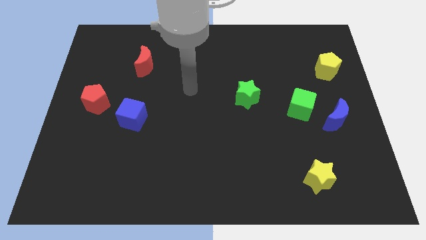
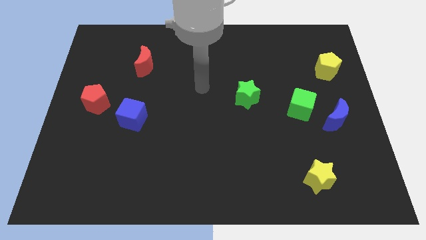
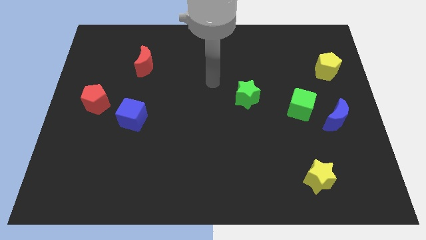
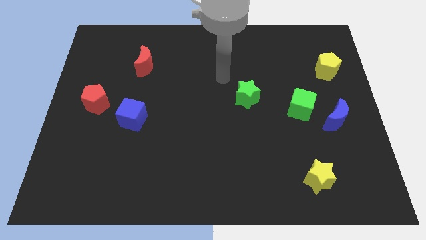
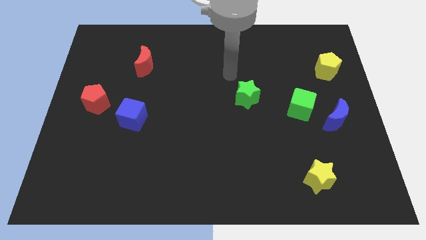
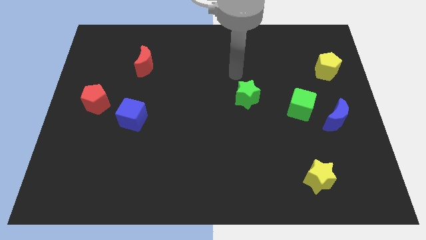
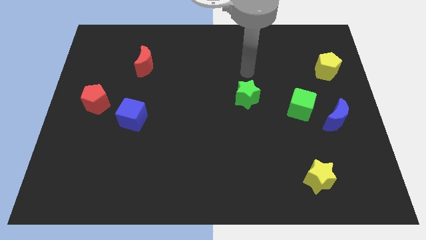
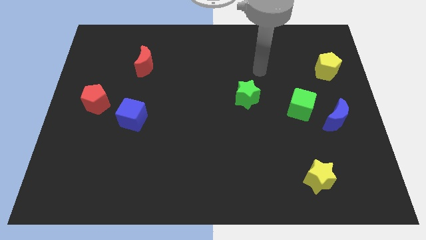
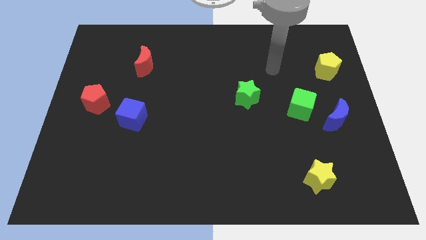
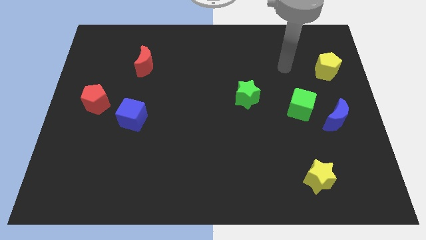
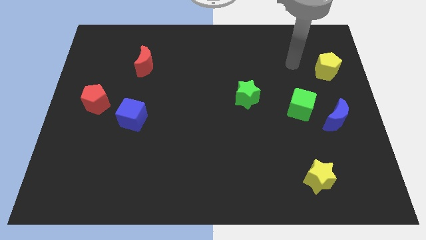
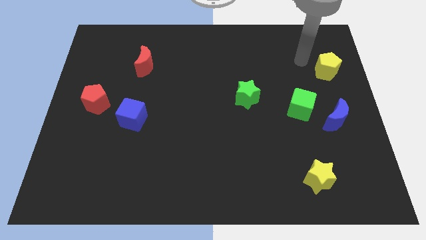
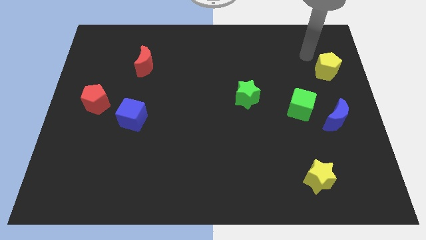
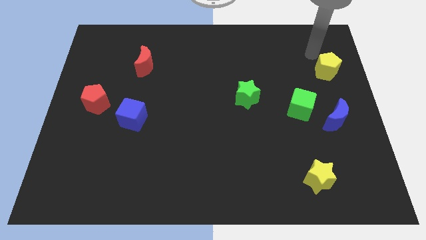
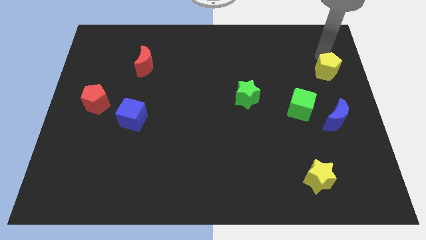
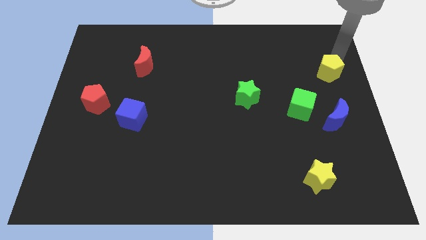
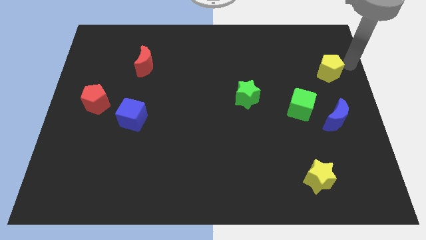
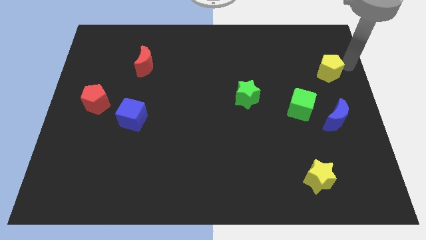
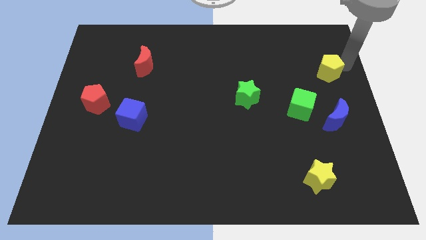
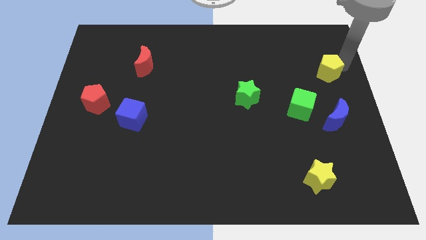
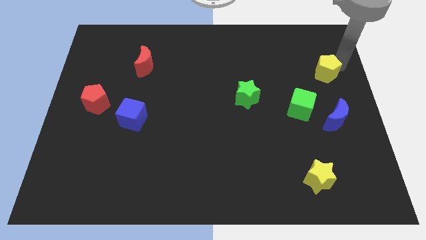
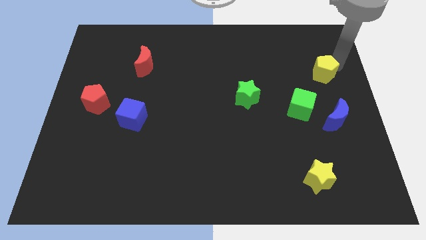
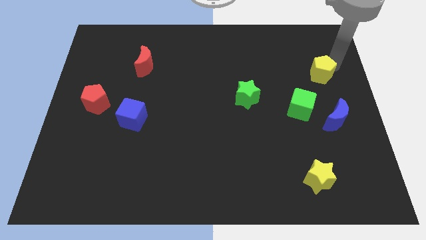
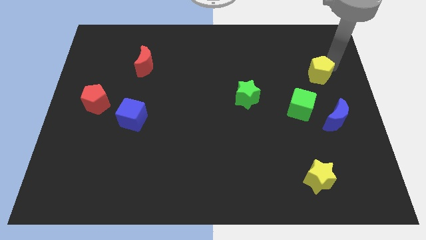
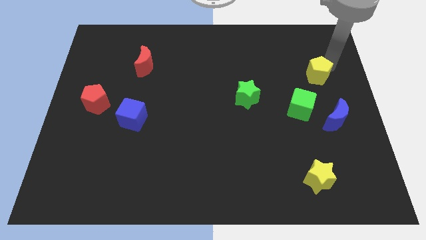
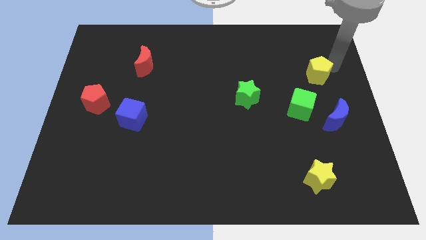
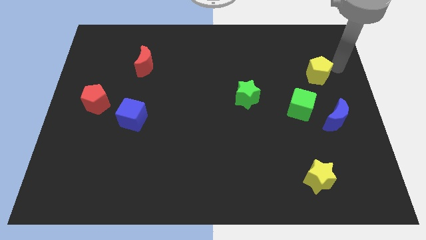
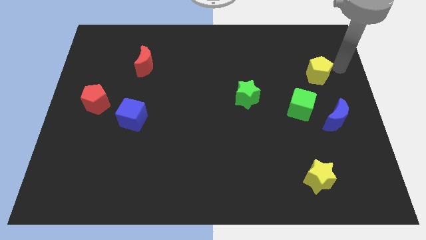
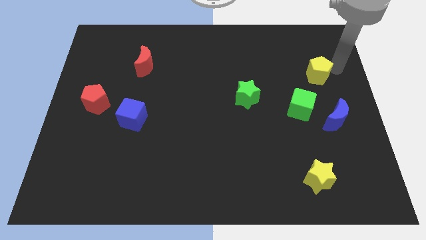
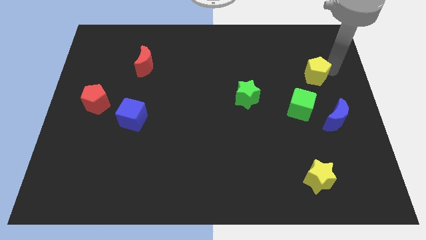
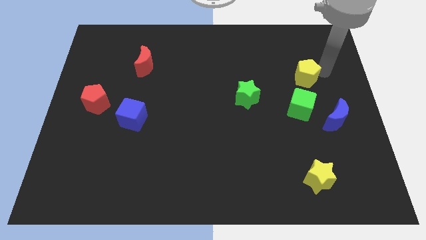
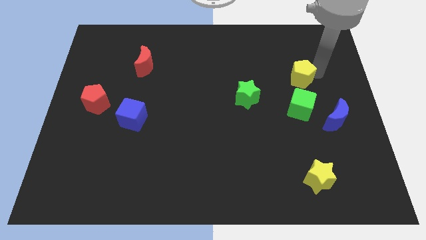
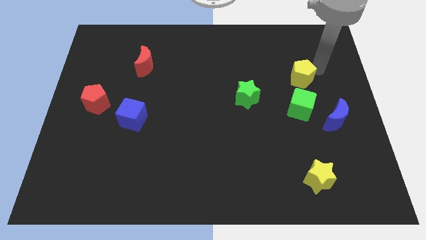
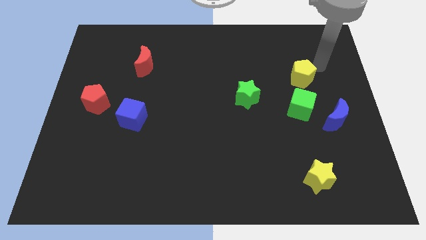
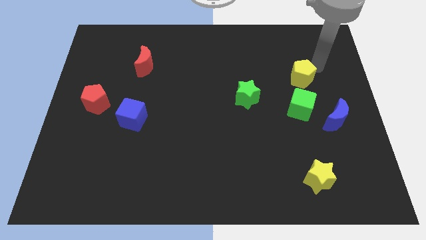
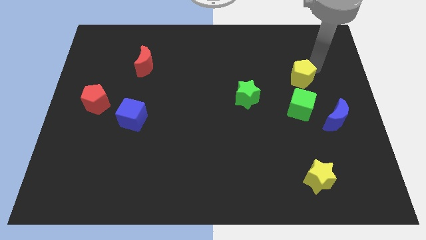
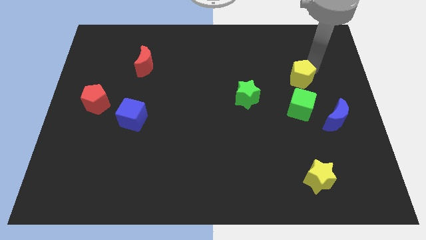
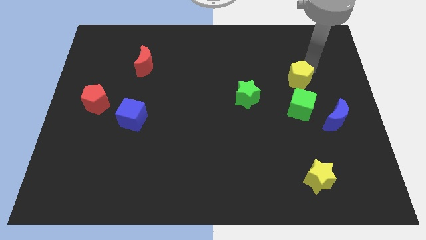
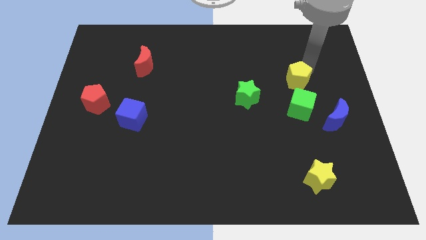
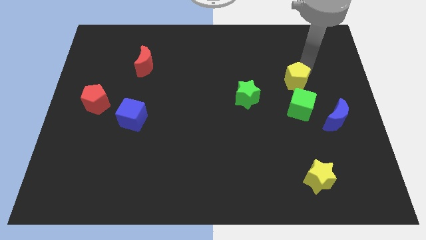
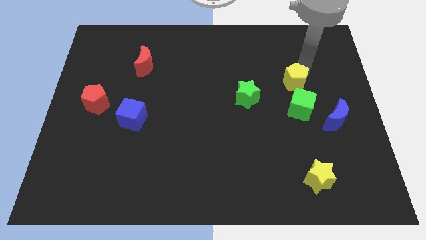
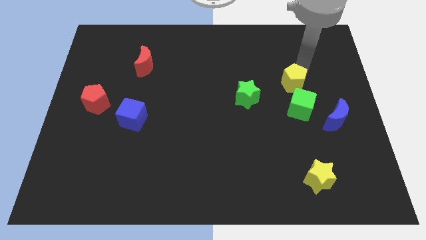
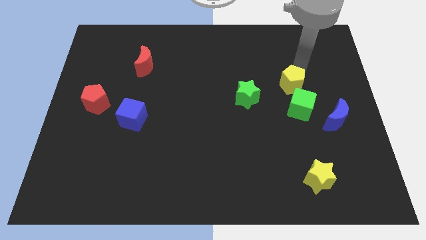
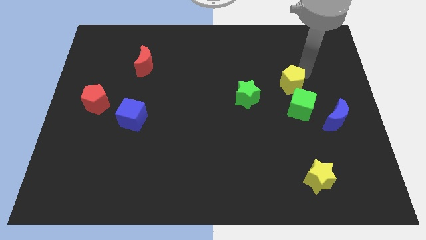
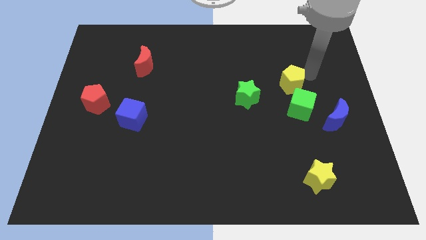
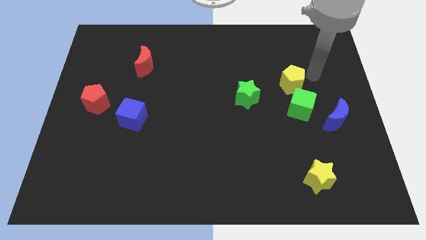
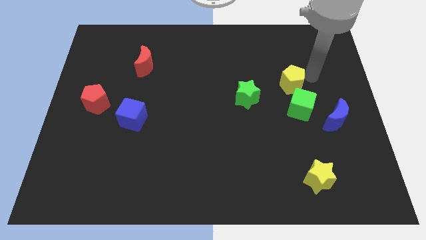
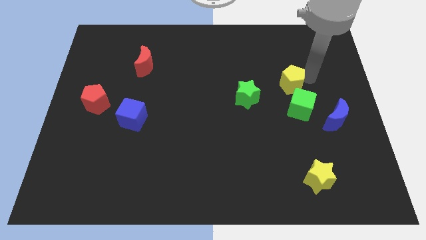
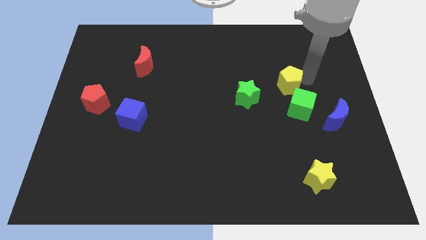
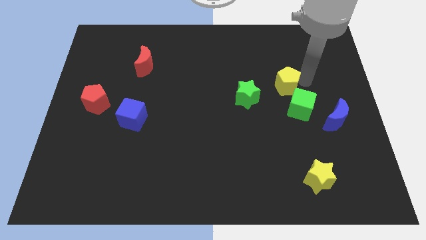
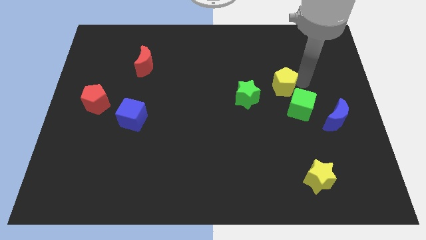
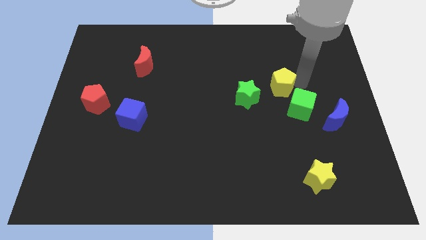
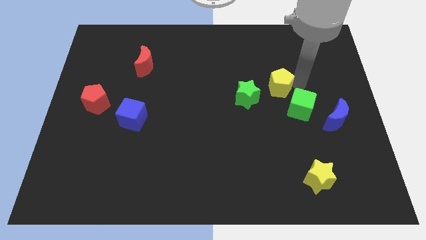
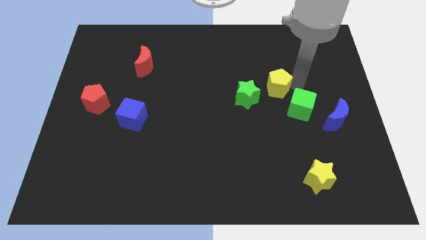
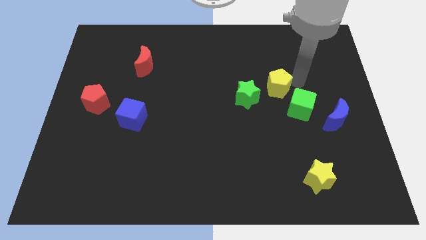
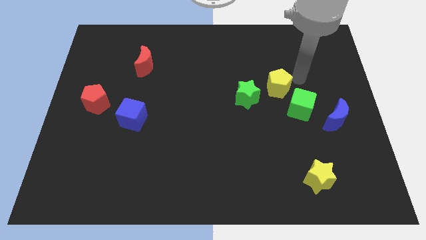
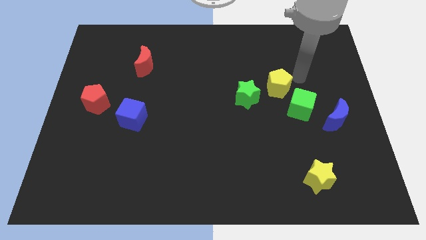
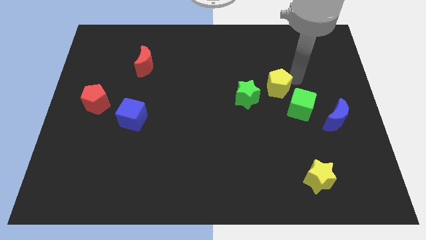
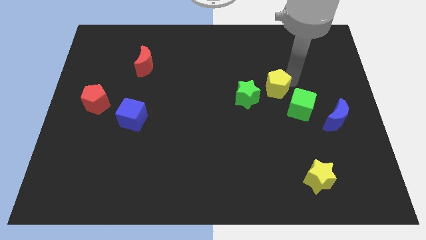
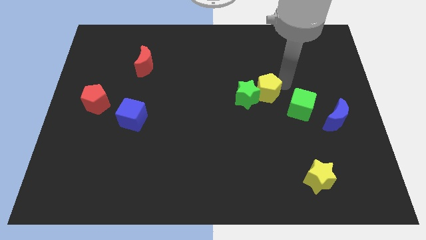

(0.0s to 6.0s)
slide the yellow pentagon to the green star

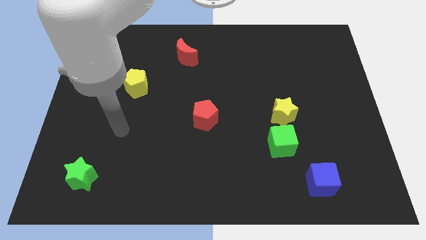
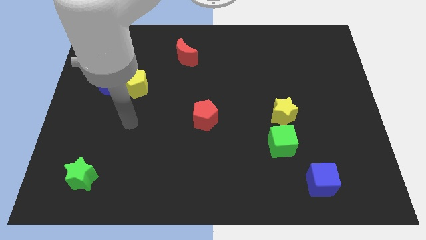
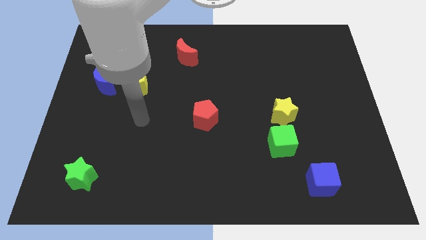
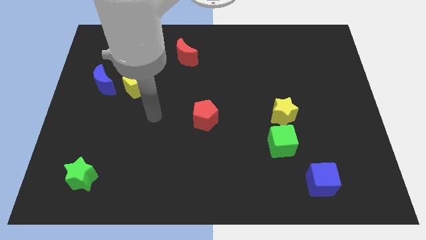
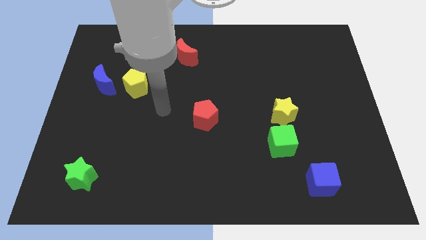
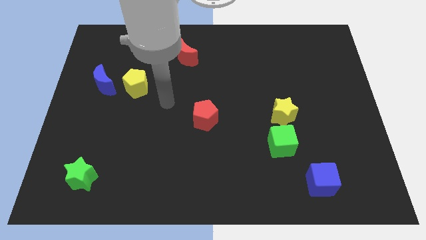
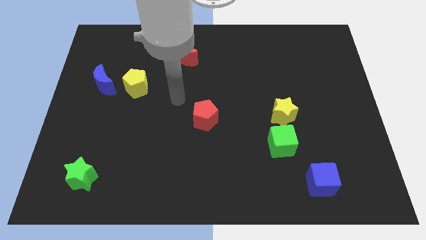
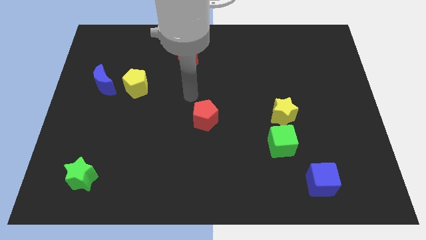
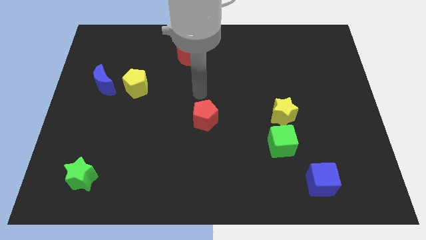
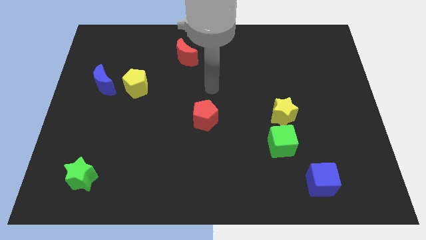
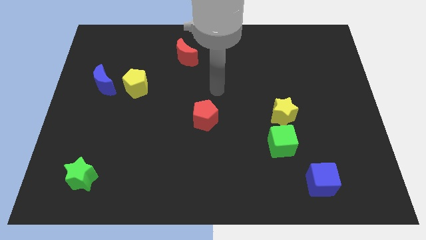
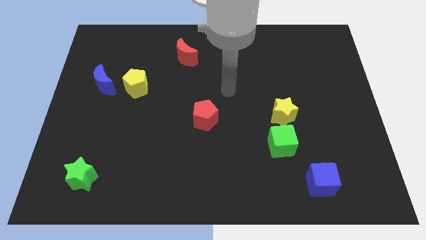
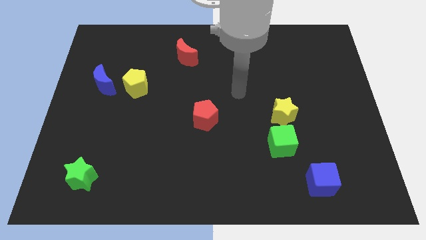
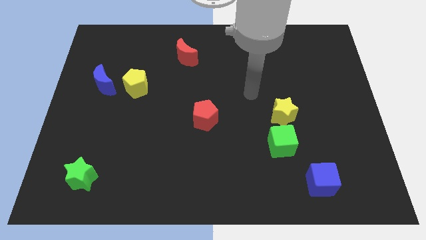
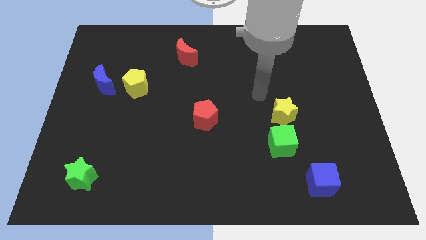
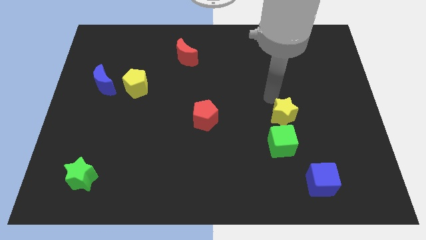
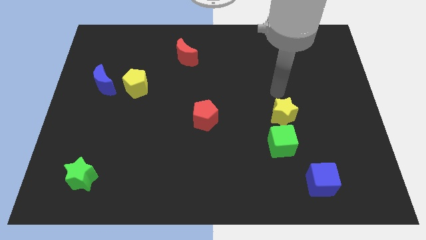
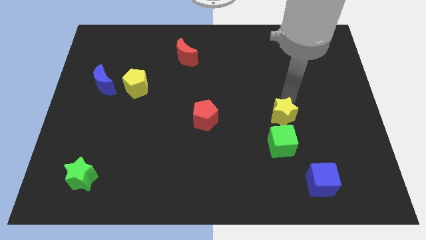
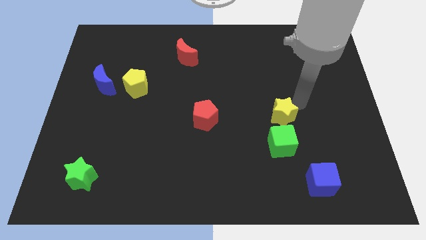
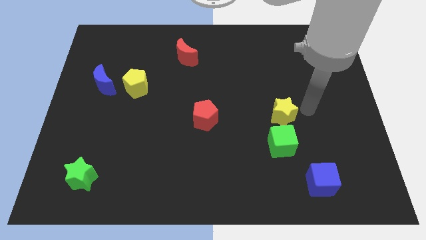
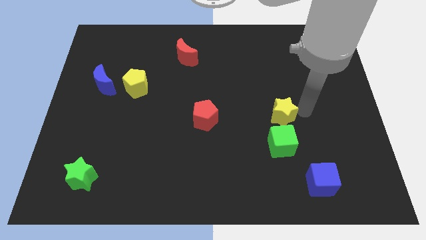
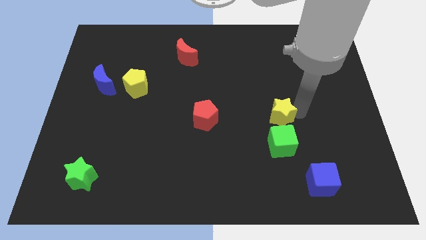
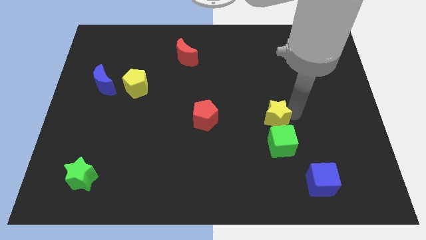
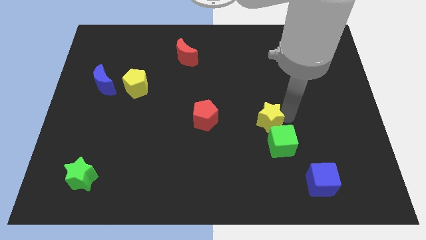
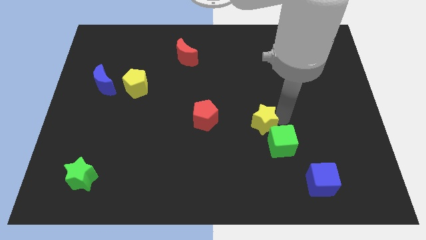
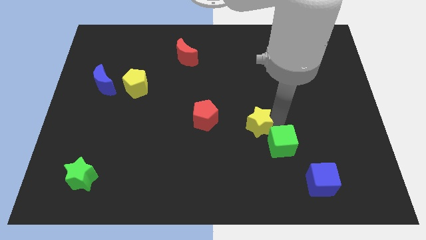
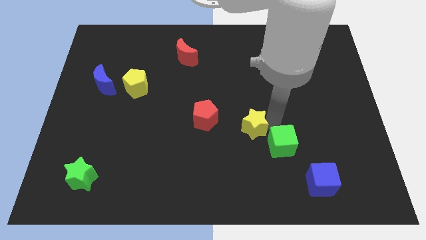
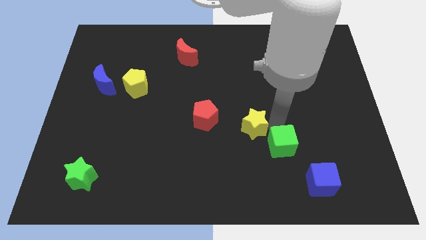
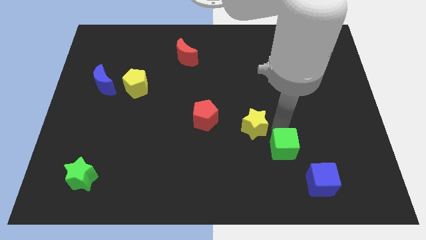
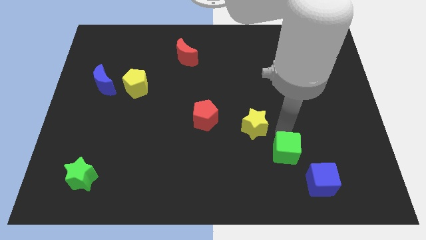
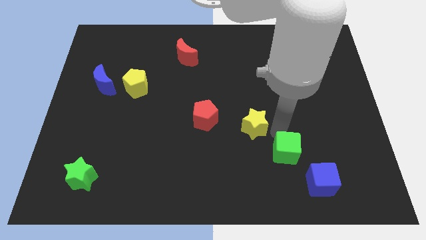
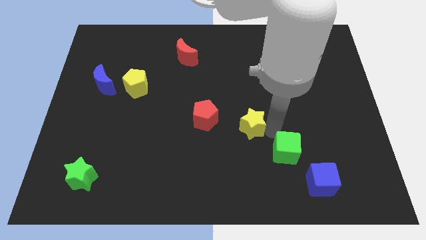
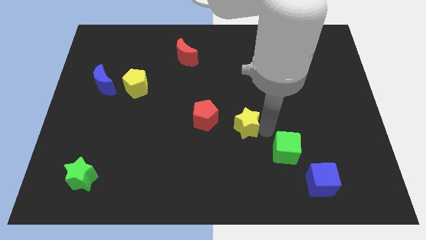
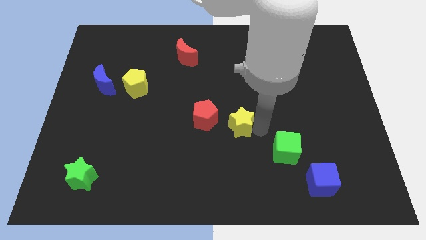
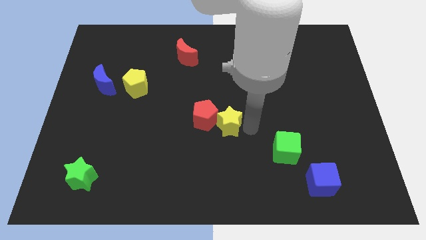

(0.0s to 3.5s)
push the yellow star close to the red pentagon
